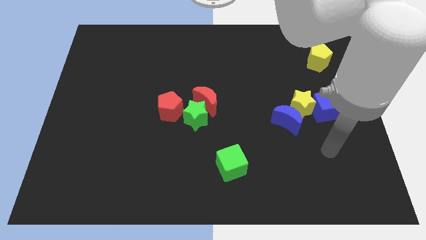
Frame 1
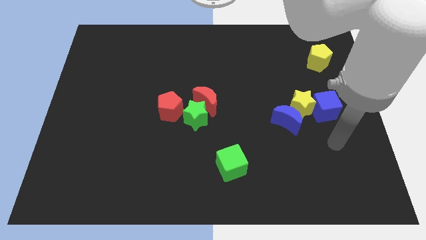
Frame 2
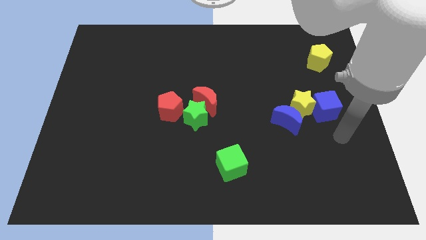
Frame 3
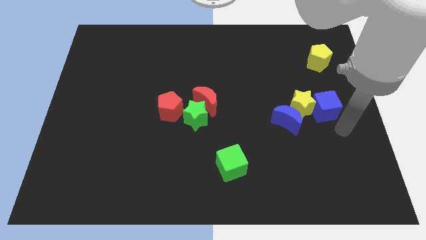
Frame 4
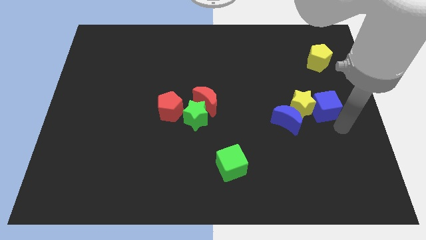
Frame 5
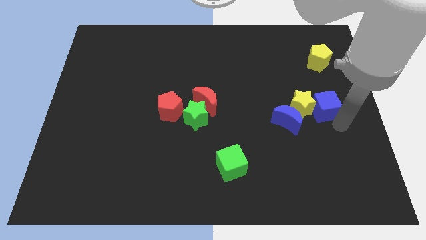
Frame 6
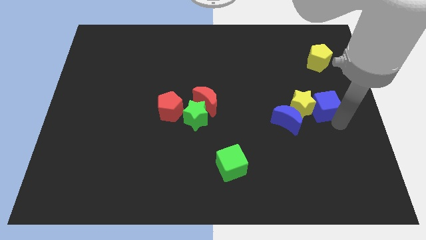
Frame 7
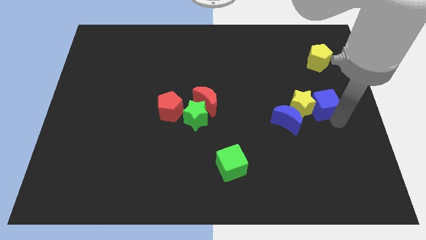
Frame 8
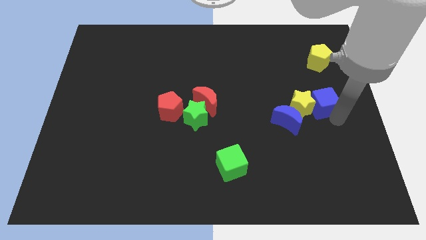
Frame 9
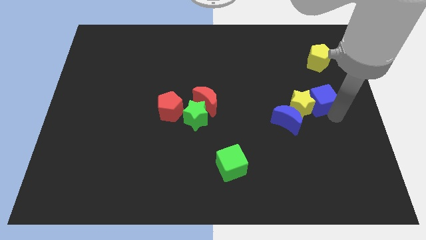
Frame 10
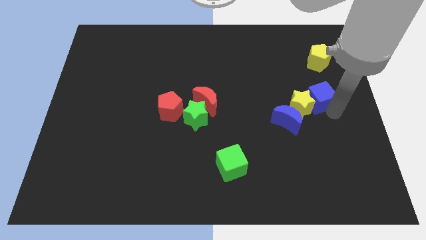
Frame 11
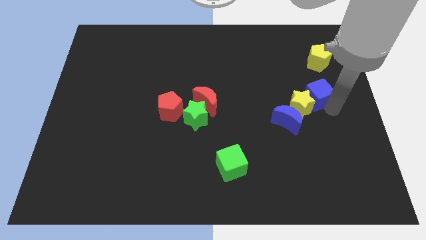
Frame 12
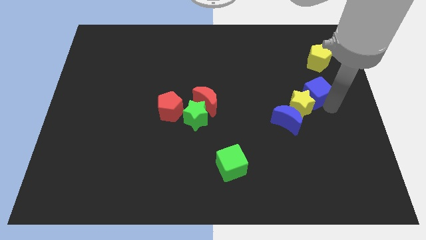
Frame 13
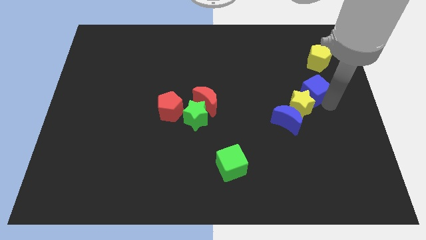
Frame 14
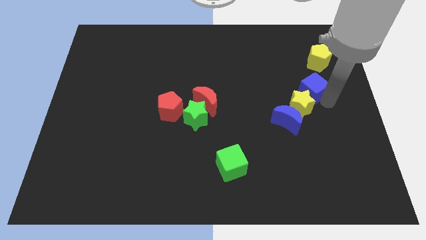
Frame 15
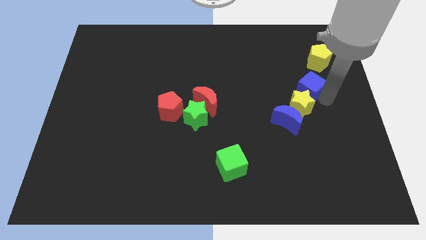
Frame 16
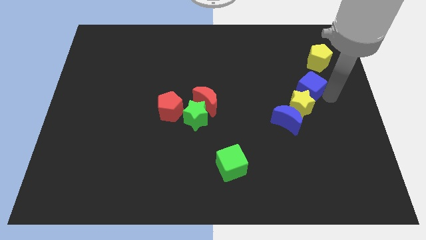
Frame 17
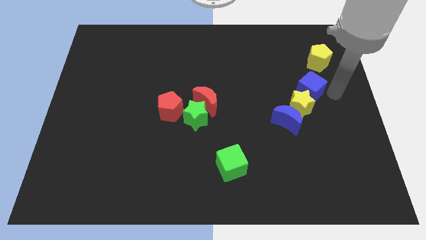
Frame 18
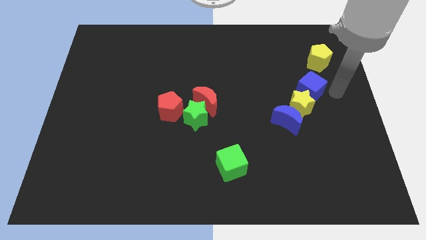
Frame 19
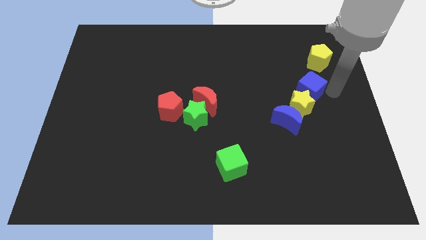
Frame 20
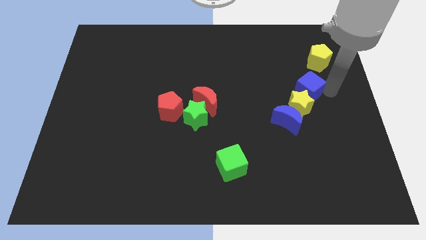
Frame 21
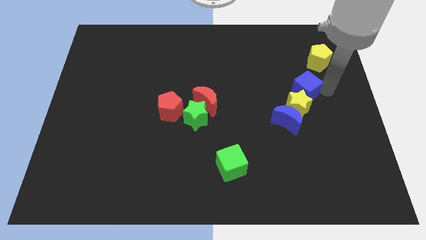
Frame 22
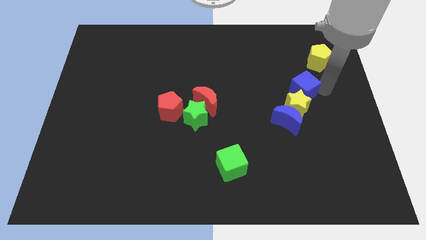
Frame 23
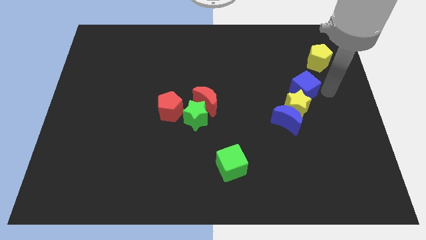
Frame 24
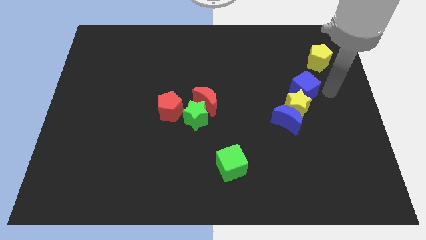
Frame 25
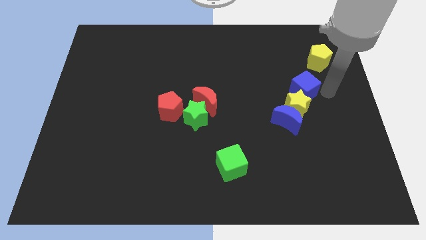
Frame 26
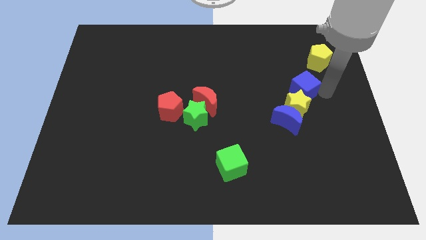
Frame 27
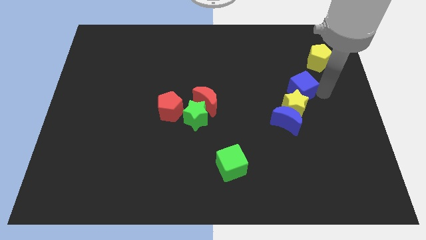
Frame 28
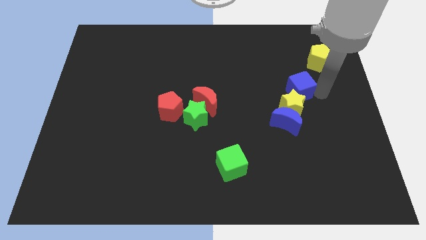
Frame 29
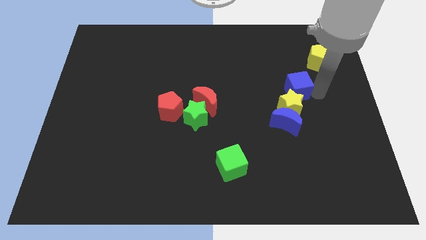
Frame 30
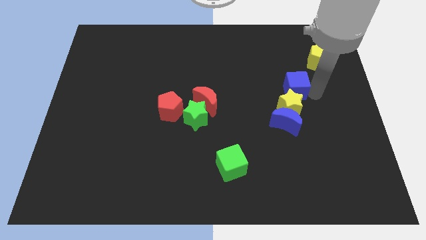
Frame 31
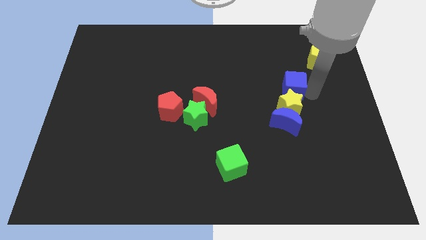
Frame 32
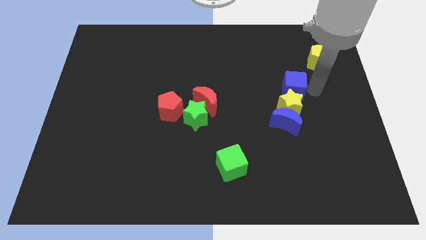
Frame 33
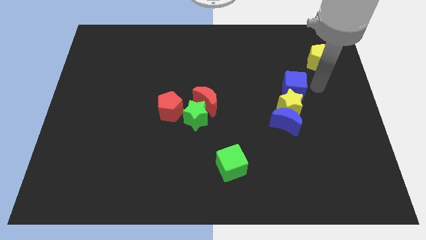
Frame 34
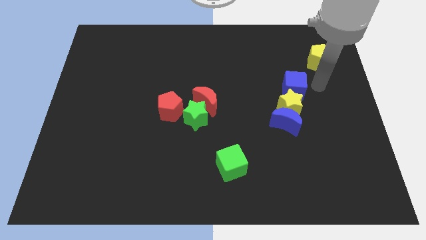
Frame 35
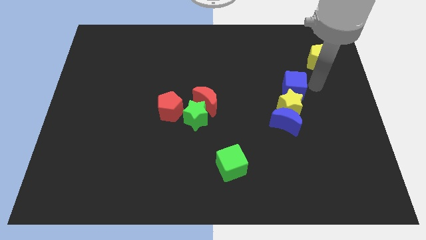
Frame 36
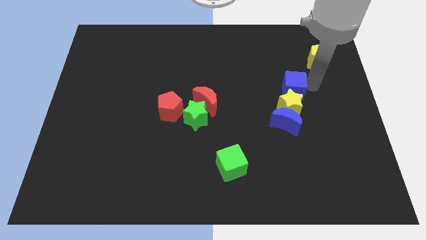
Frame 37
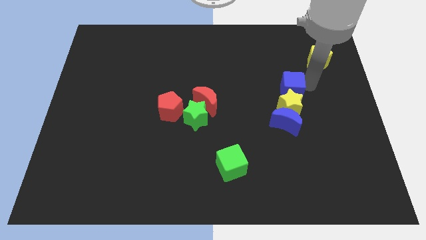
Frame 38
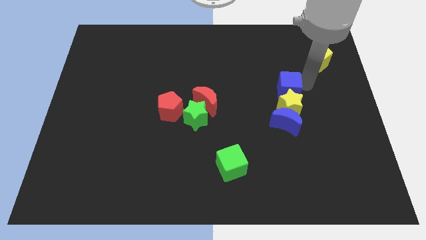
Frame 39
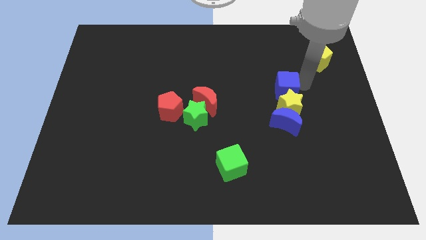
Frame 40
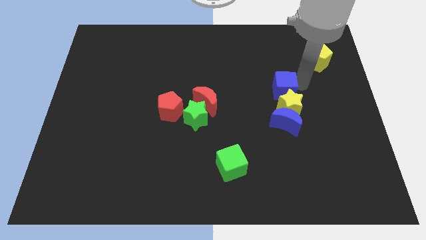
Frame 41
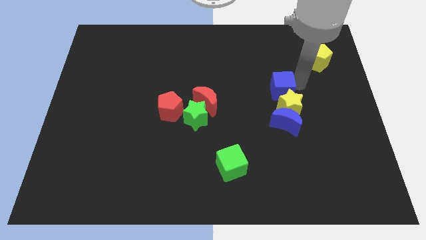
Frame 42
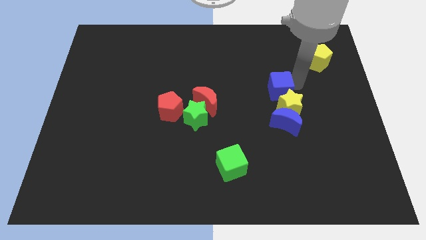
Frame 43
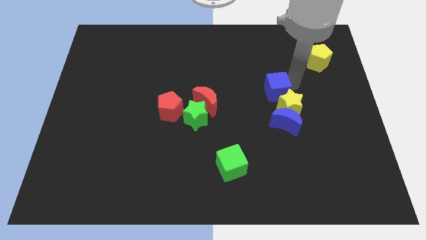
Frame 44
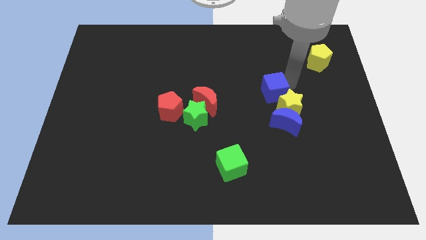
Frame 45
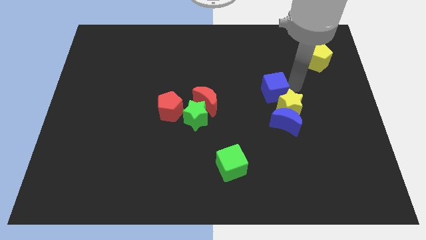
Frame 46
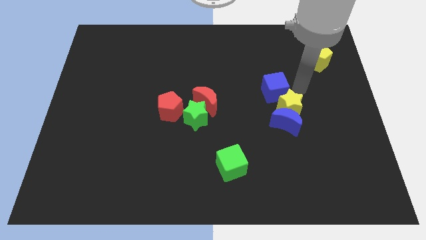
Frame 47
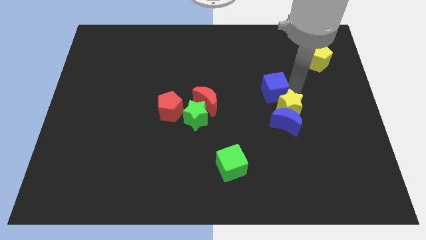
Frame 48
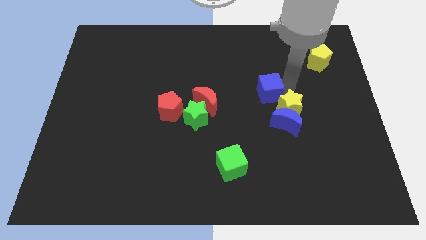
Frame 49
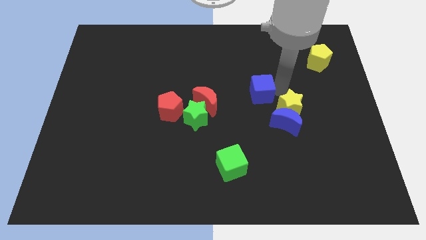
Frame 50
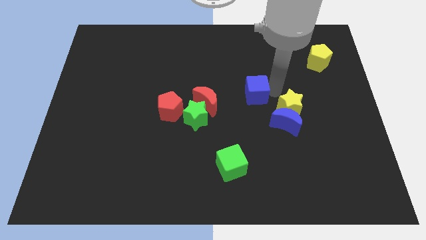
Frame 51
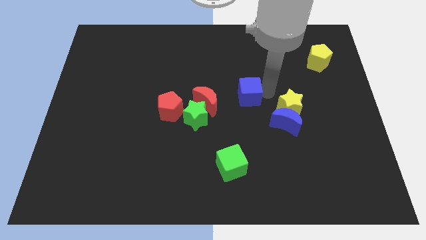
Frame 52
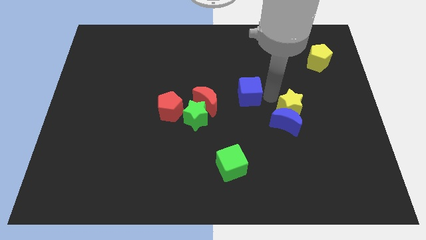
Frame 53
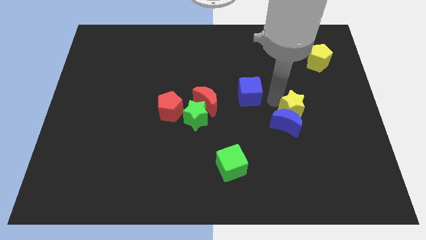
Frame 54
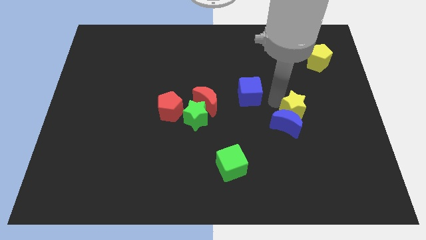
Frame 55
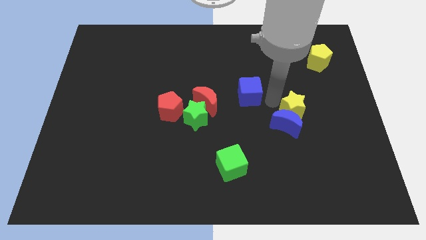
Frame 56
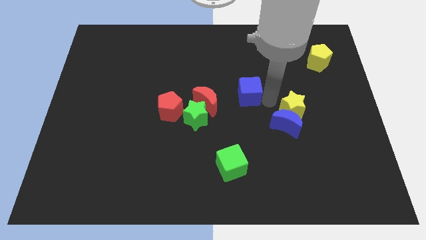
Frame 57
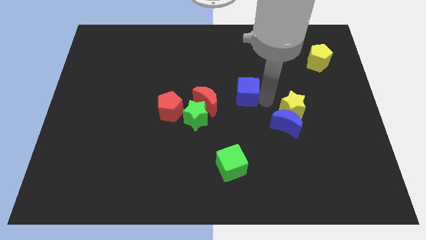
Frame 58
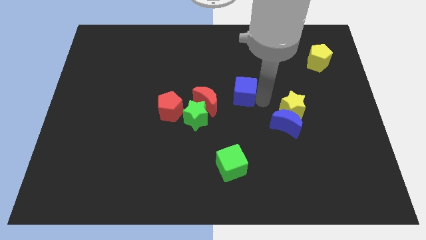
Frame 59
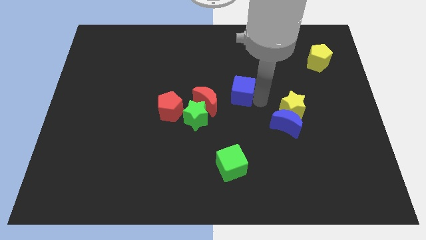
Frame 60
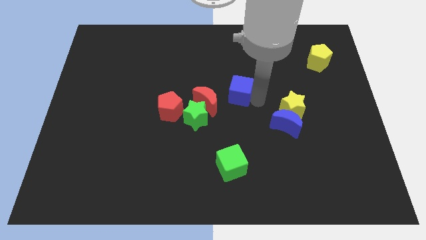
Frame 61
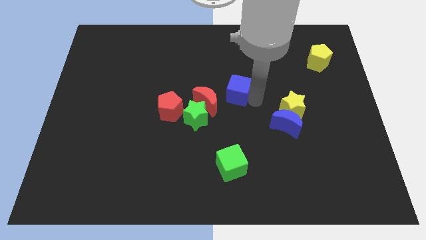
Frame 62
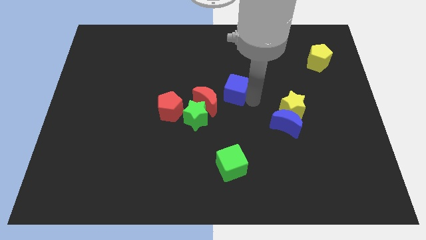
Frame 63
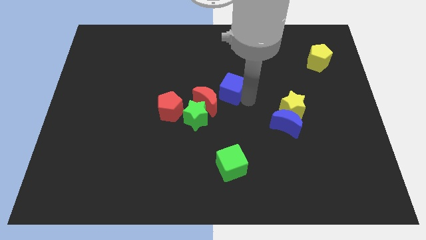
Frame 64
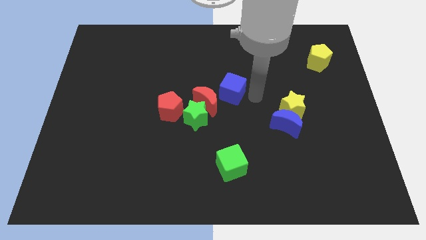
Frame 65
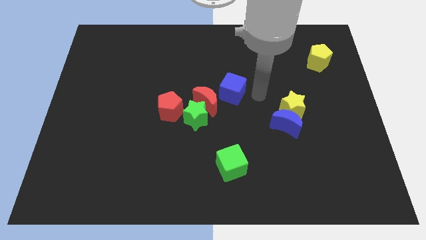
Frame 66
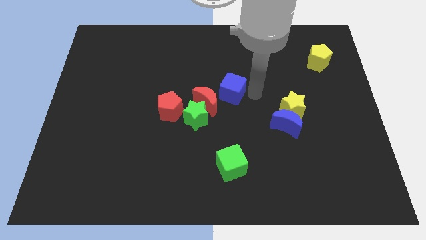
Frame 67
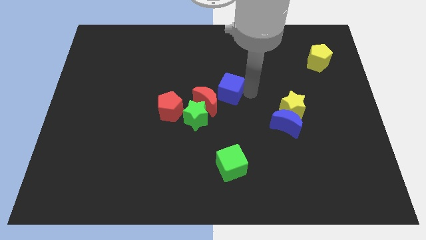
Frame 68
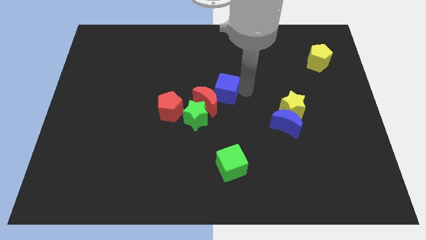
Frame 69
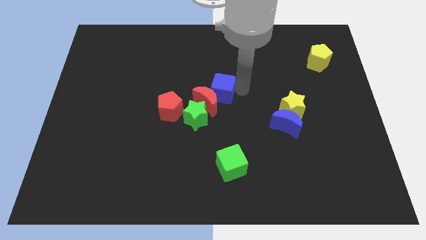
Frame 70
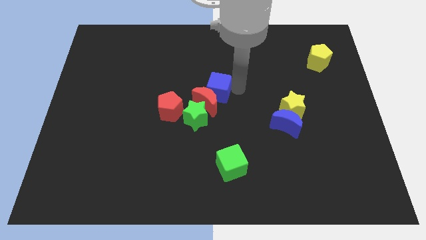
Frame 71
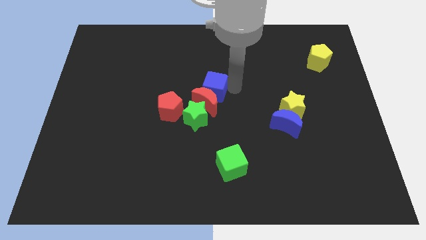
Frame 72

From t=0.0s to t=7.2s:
slide the blue cube diagonally up and to the left of the red moon

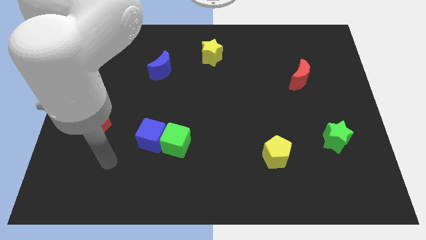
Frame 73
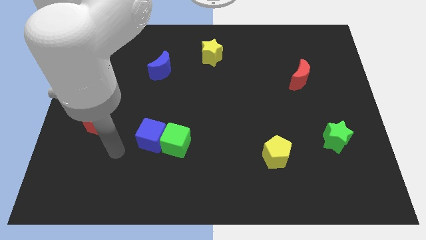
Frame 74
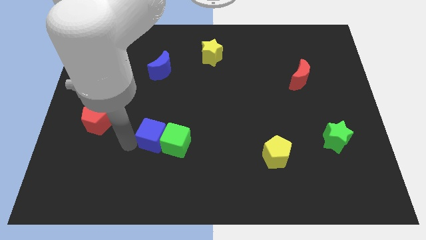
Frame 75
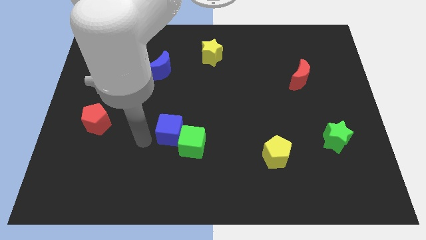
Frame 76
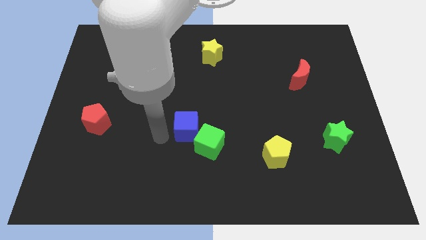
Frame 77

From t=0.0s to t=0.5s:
put the green cube just left of the yellow pentagon
